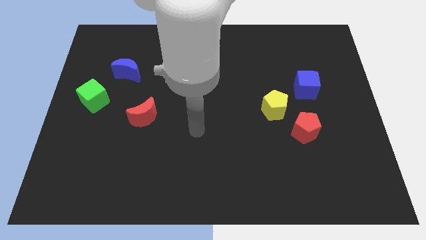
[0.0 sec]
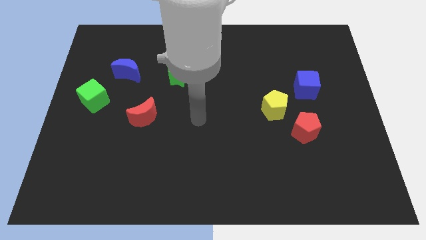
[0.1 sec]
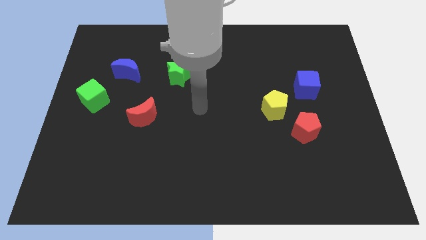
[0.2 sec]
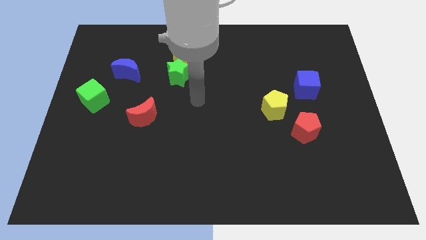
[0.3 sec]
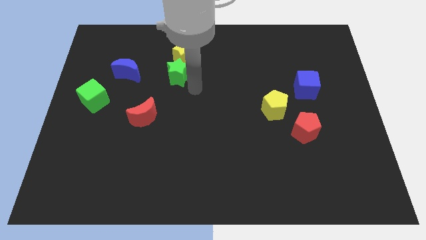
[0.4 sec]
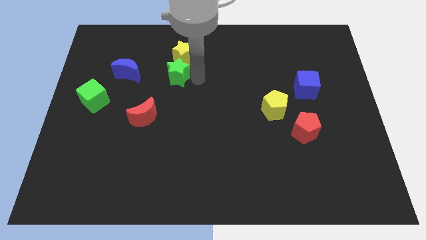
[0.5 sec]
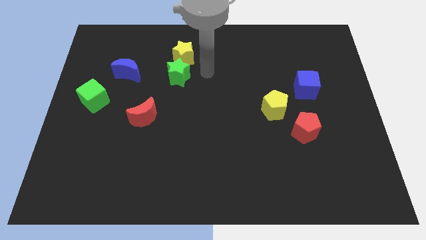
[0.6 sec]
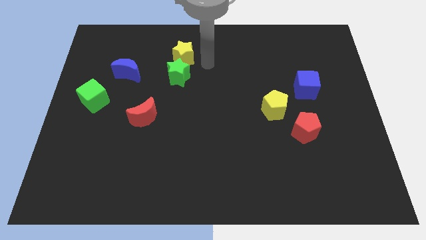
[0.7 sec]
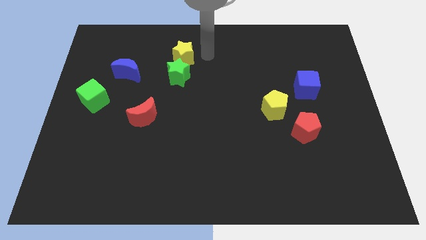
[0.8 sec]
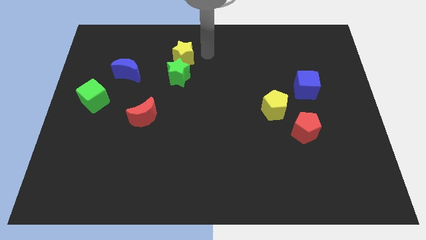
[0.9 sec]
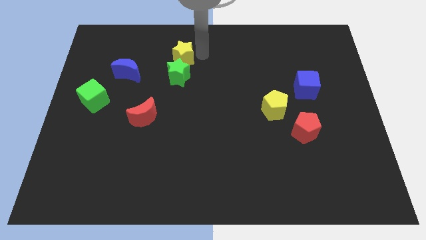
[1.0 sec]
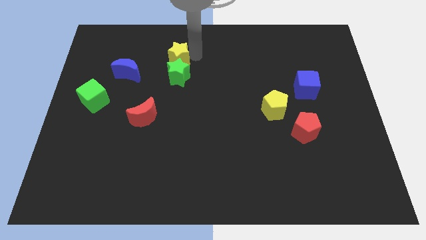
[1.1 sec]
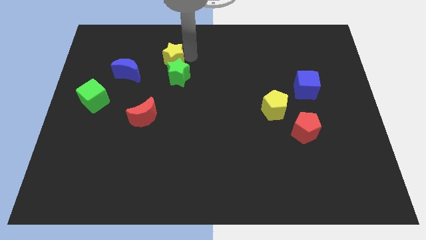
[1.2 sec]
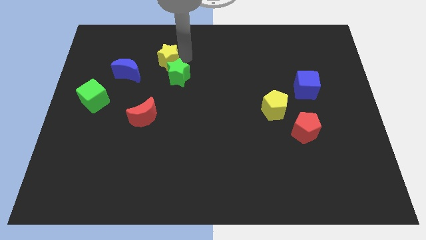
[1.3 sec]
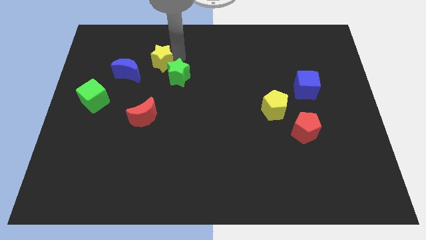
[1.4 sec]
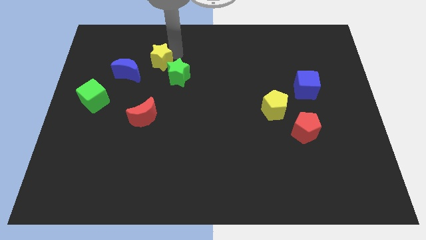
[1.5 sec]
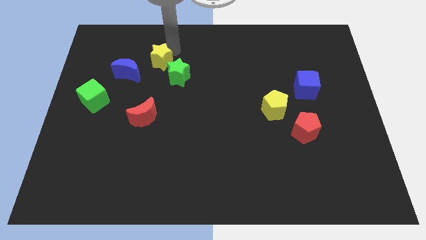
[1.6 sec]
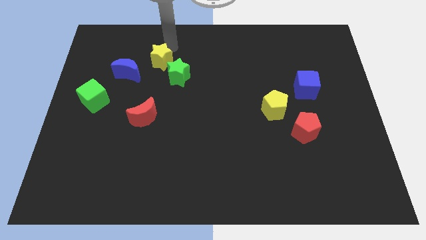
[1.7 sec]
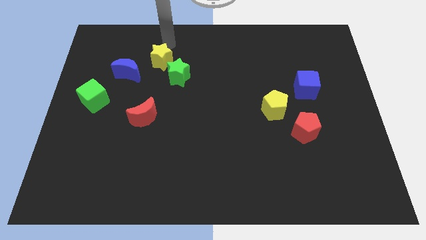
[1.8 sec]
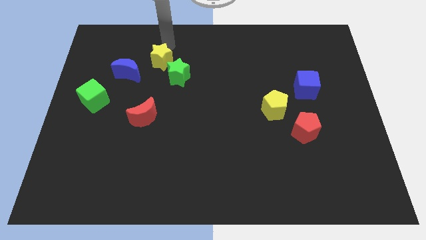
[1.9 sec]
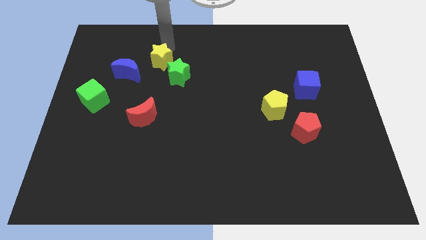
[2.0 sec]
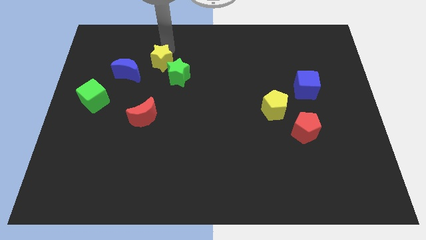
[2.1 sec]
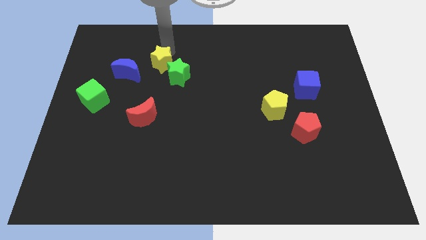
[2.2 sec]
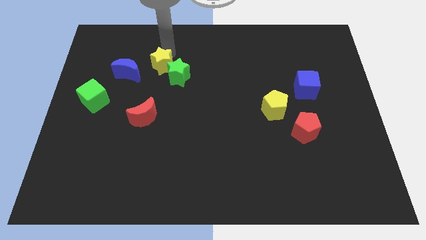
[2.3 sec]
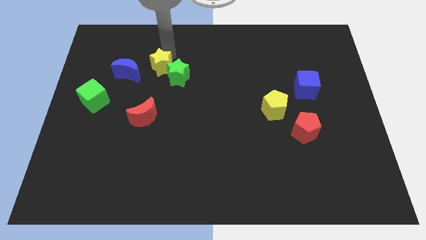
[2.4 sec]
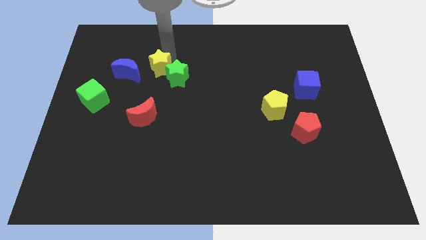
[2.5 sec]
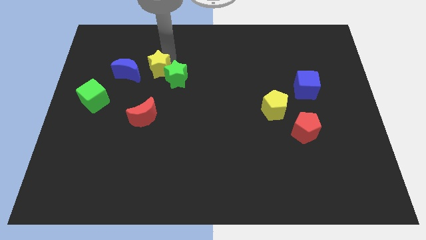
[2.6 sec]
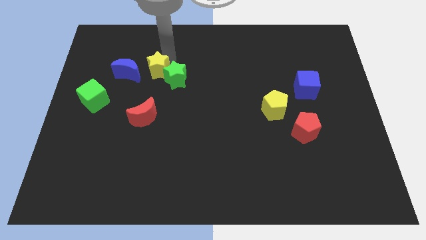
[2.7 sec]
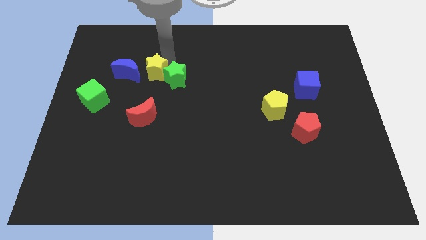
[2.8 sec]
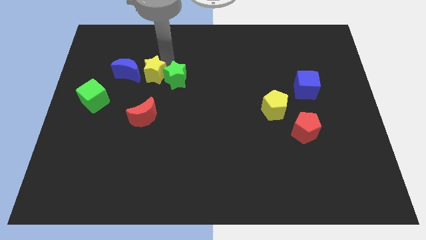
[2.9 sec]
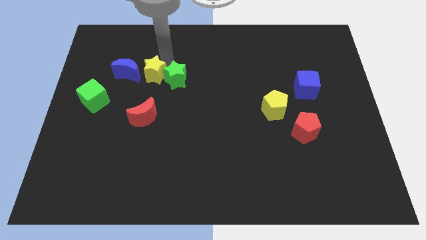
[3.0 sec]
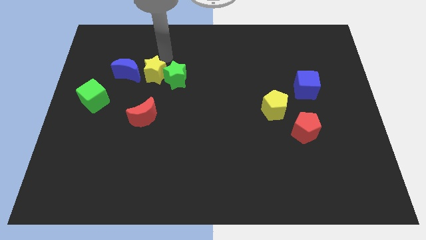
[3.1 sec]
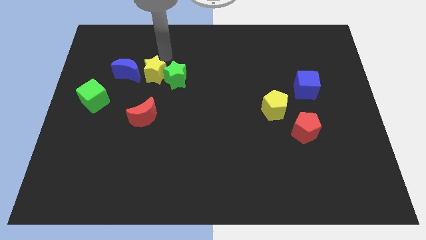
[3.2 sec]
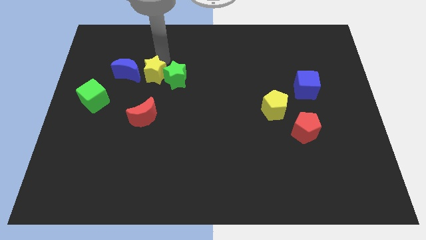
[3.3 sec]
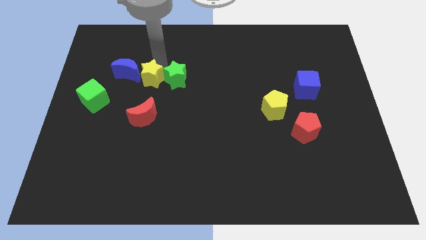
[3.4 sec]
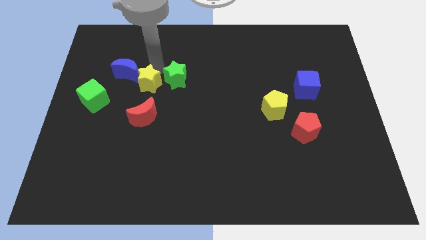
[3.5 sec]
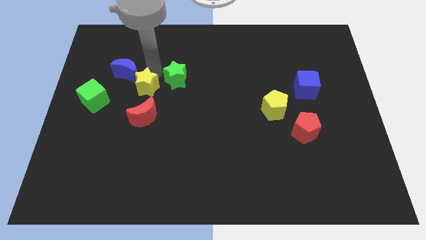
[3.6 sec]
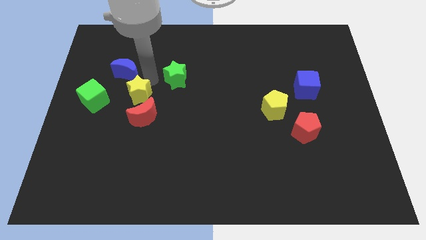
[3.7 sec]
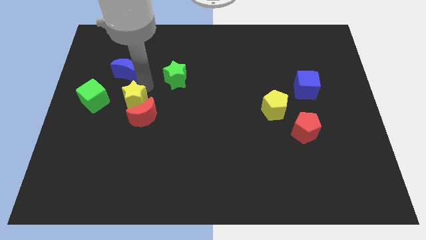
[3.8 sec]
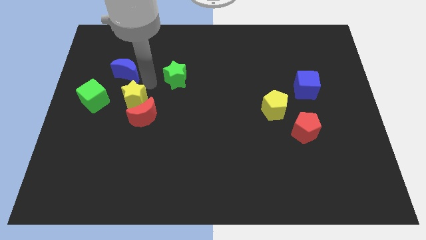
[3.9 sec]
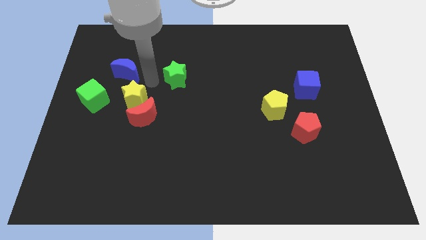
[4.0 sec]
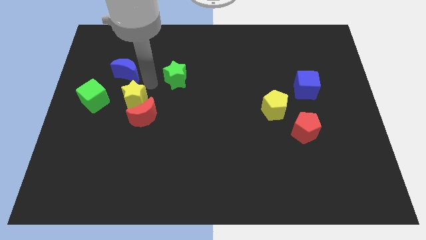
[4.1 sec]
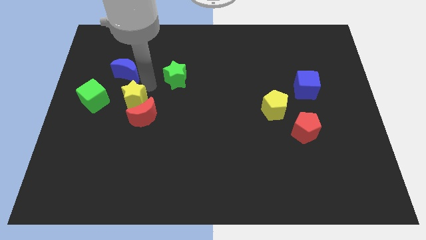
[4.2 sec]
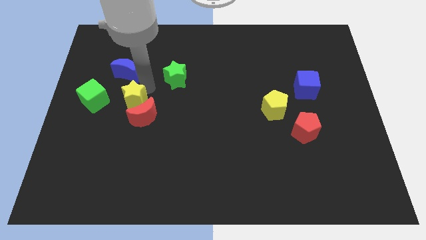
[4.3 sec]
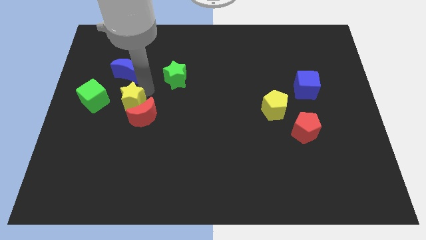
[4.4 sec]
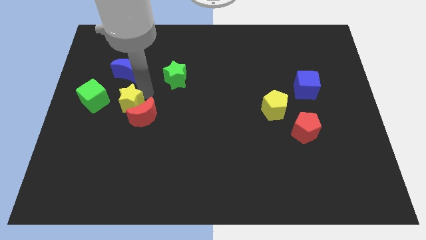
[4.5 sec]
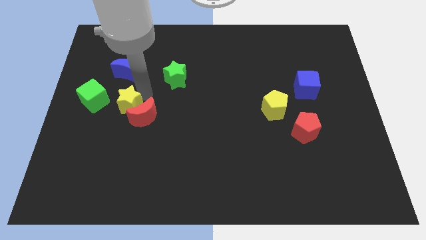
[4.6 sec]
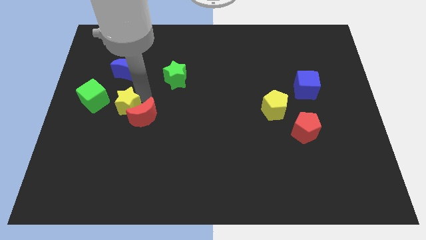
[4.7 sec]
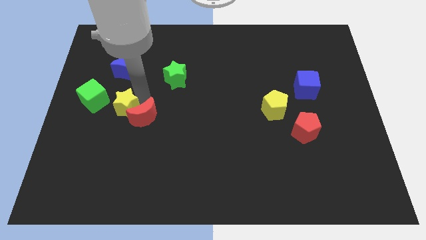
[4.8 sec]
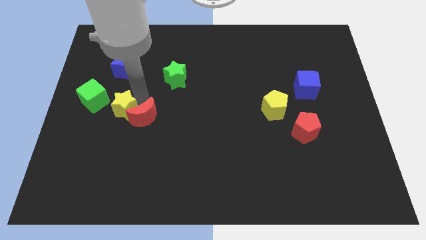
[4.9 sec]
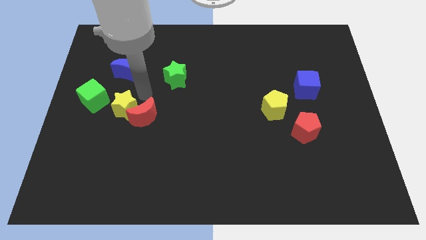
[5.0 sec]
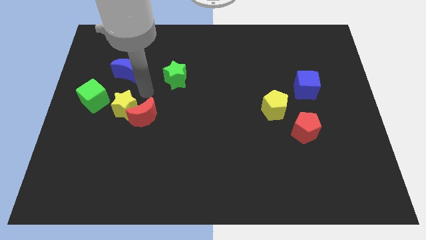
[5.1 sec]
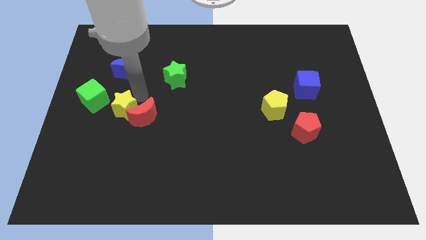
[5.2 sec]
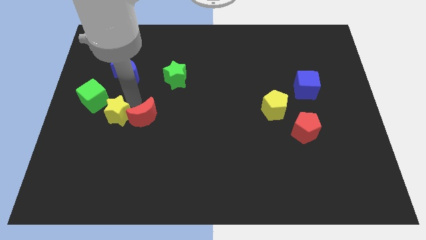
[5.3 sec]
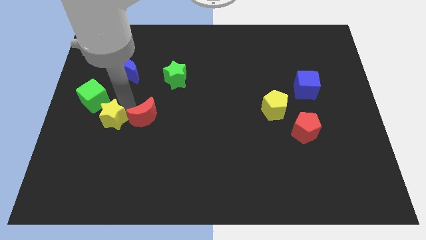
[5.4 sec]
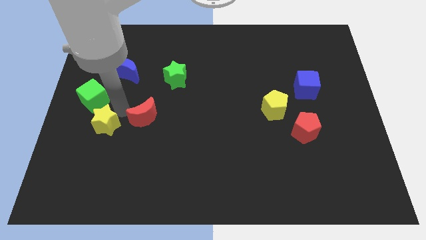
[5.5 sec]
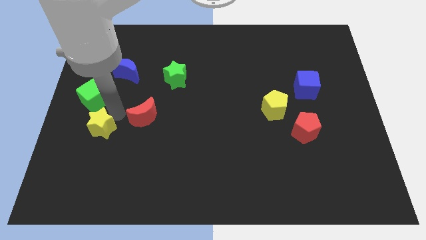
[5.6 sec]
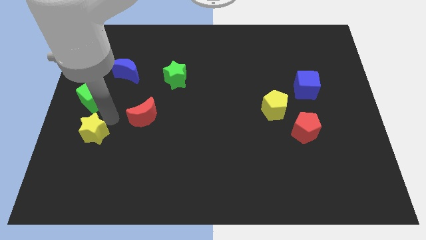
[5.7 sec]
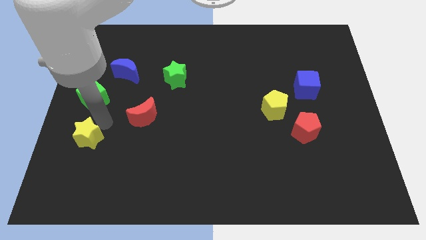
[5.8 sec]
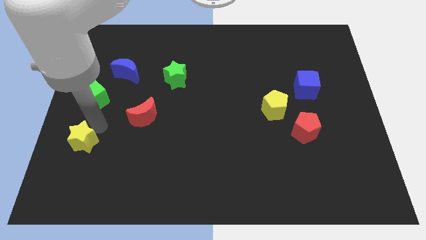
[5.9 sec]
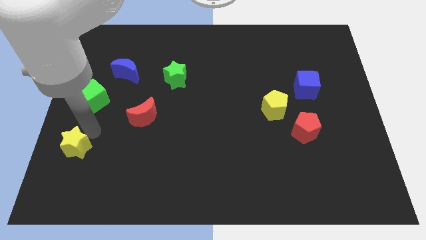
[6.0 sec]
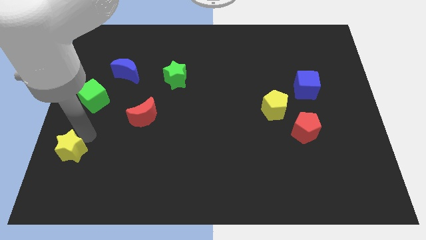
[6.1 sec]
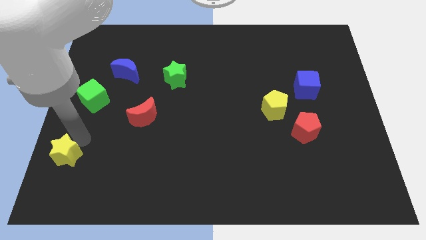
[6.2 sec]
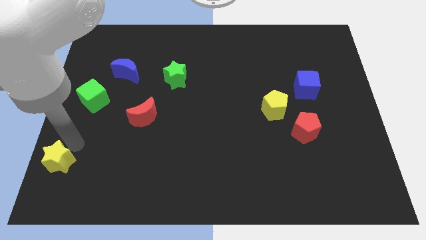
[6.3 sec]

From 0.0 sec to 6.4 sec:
slide the yellow star to the bottom left of the board

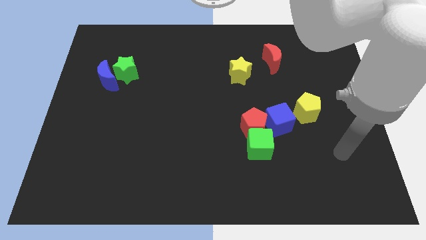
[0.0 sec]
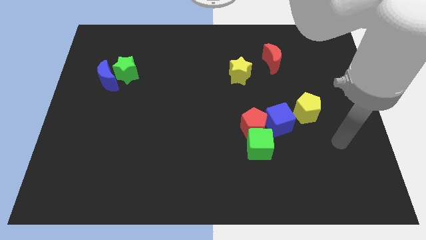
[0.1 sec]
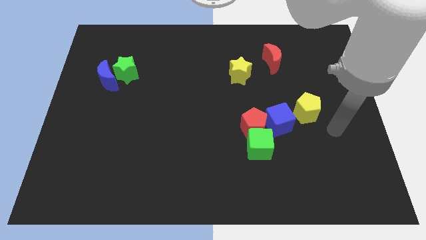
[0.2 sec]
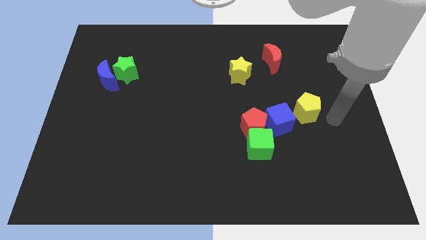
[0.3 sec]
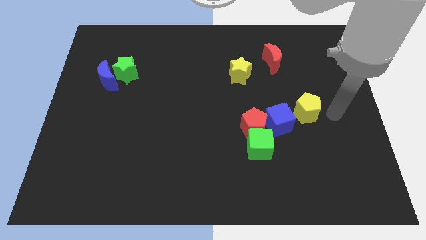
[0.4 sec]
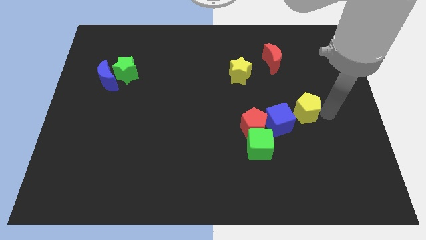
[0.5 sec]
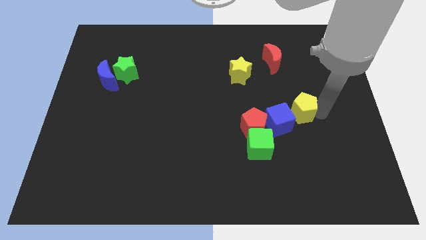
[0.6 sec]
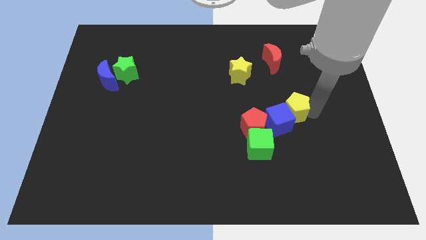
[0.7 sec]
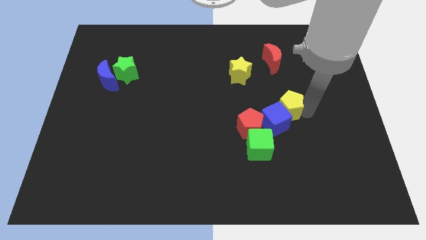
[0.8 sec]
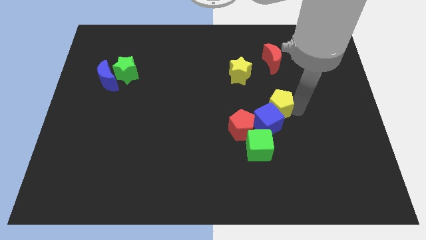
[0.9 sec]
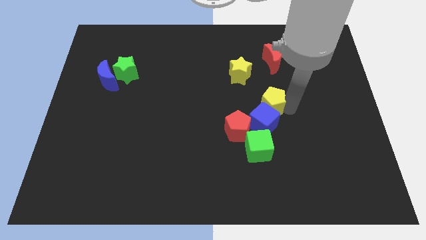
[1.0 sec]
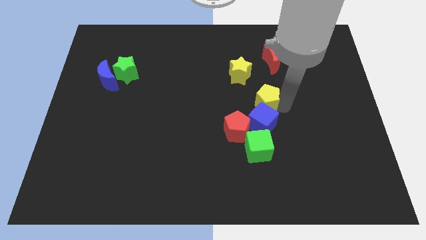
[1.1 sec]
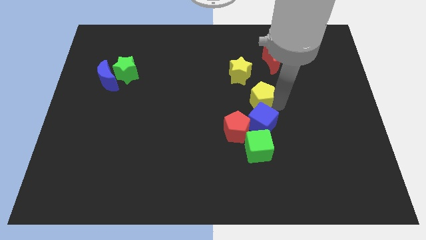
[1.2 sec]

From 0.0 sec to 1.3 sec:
slide the yellow pentagon to the center of the board
